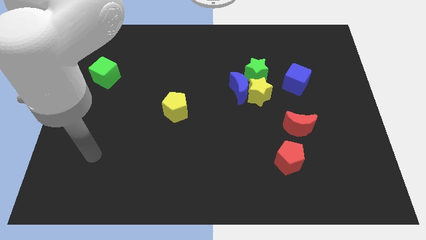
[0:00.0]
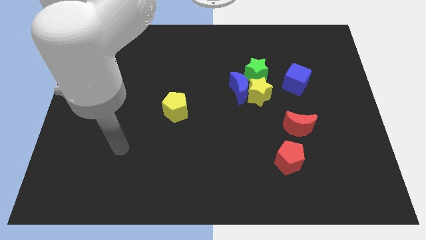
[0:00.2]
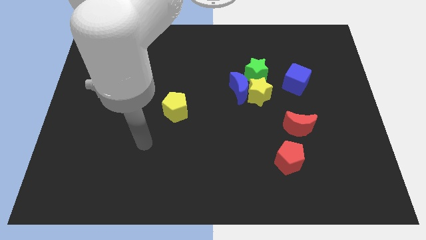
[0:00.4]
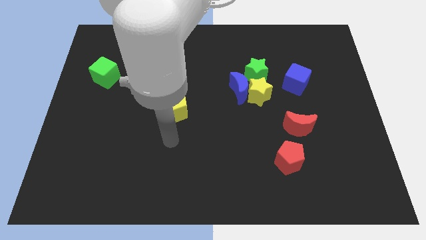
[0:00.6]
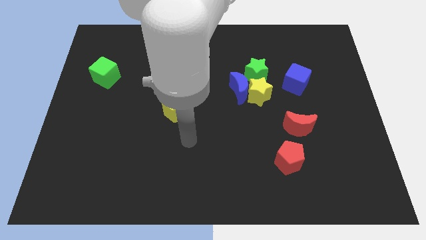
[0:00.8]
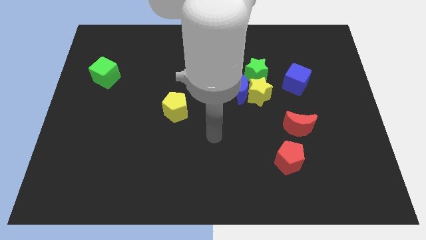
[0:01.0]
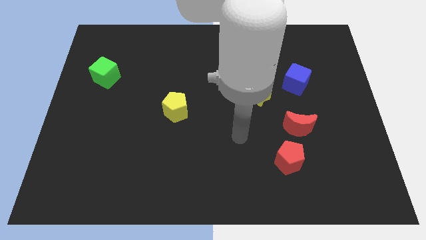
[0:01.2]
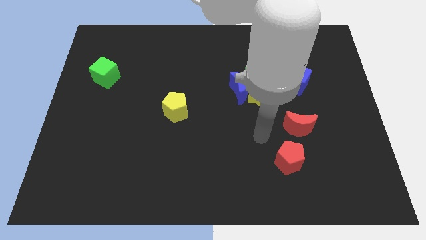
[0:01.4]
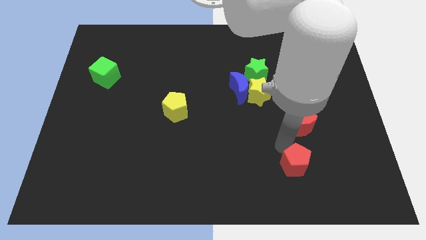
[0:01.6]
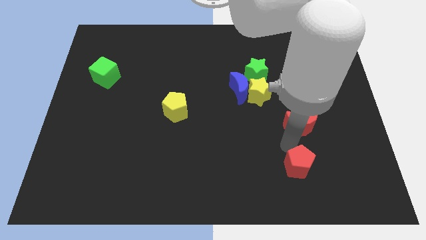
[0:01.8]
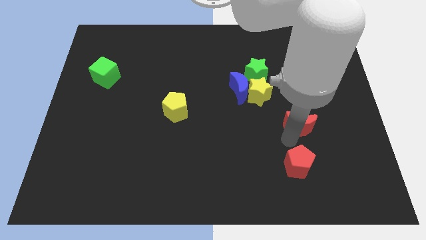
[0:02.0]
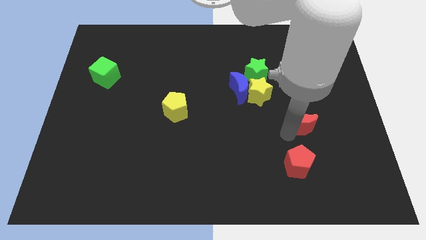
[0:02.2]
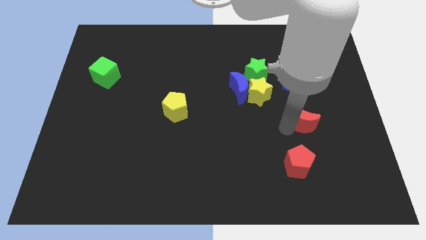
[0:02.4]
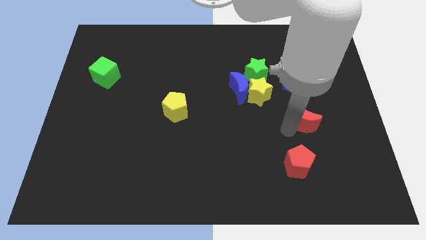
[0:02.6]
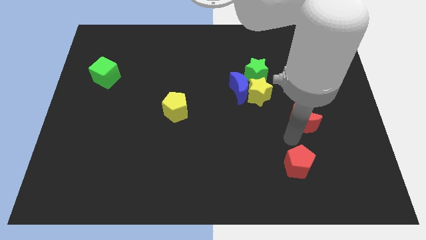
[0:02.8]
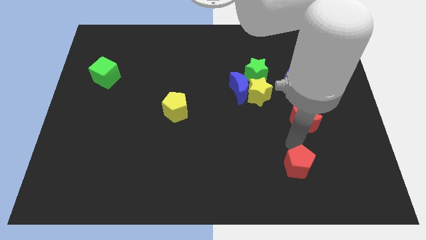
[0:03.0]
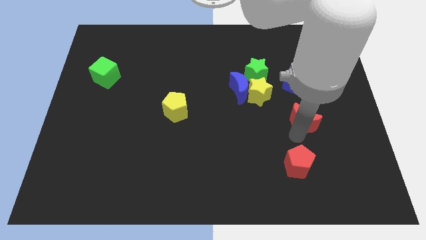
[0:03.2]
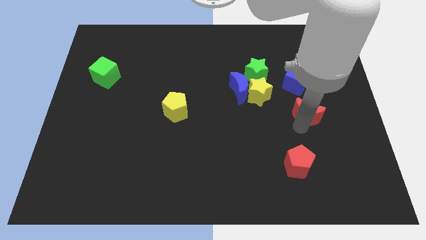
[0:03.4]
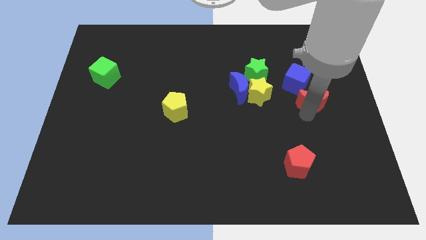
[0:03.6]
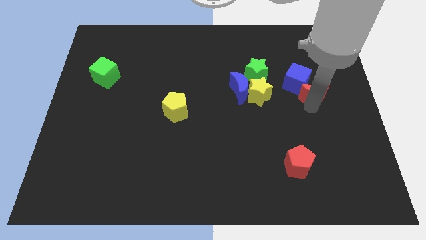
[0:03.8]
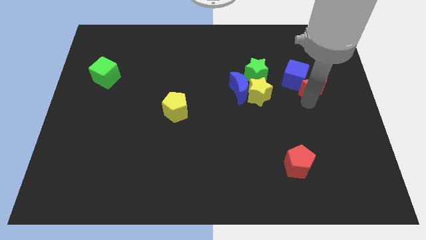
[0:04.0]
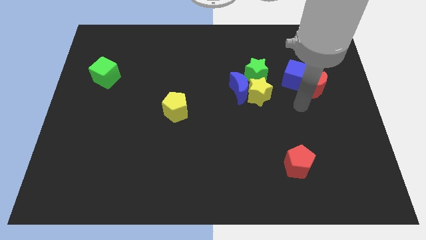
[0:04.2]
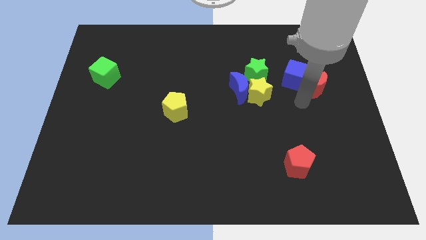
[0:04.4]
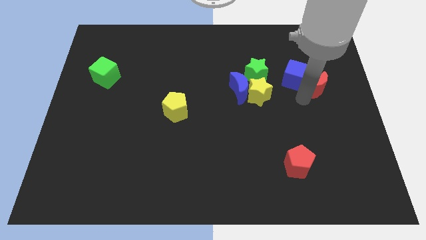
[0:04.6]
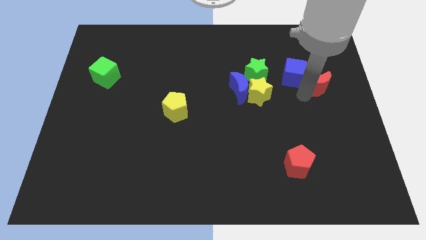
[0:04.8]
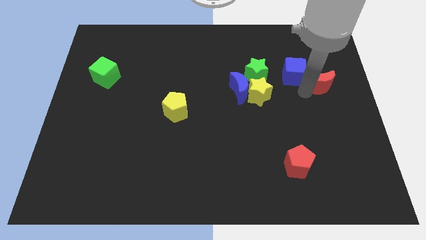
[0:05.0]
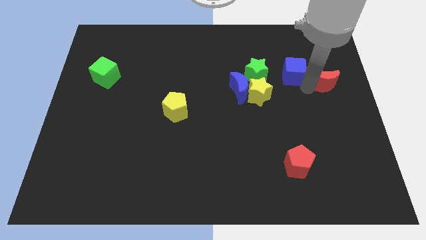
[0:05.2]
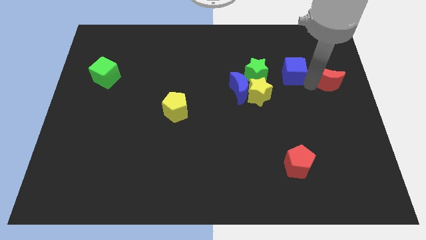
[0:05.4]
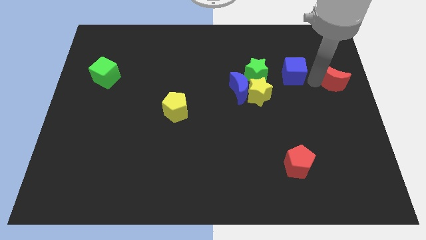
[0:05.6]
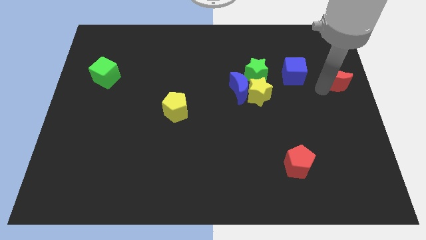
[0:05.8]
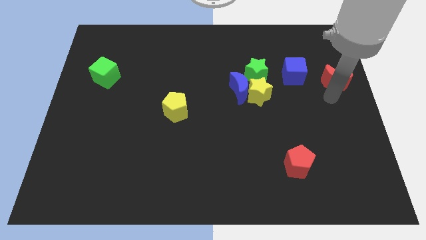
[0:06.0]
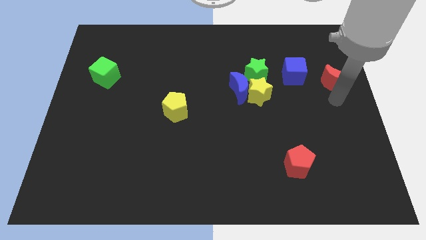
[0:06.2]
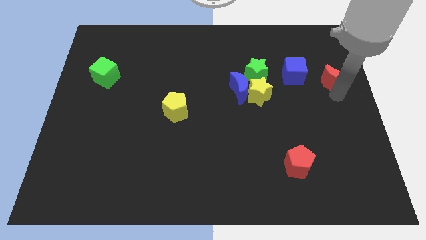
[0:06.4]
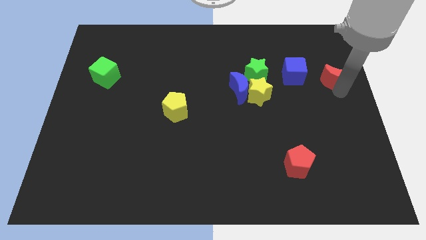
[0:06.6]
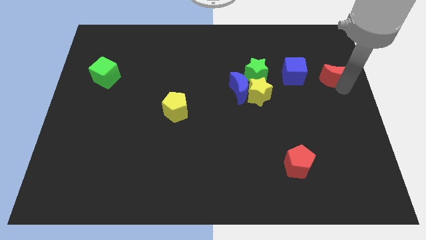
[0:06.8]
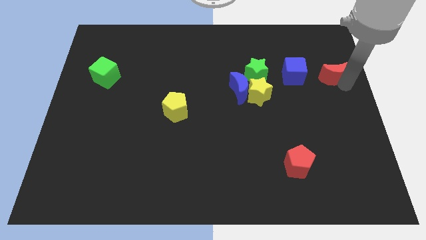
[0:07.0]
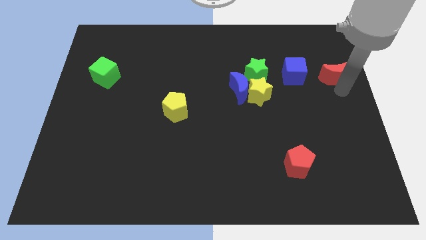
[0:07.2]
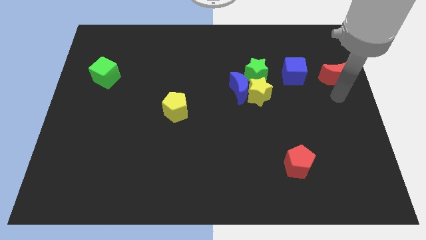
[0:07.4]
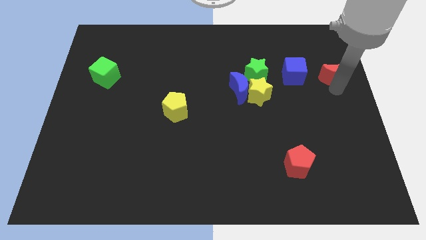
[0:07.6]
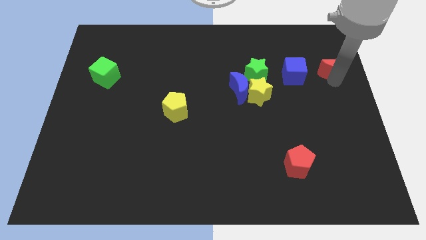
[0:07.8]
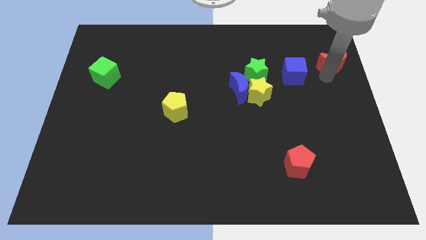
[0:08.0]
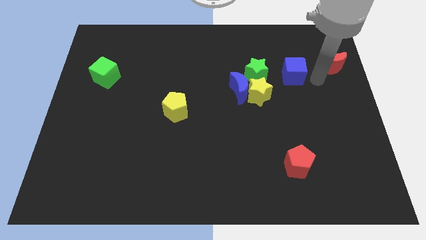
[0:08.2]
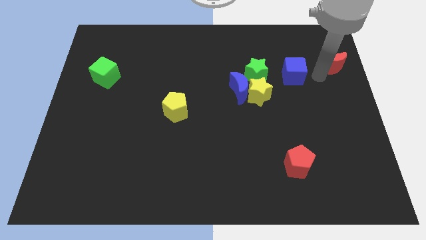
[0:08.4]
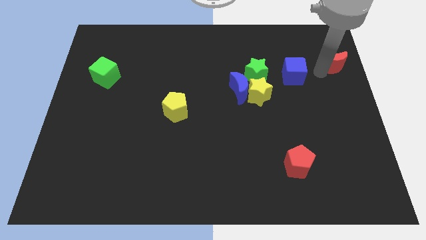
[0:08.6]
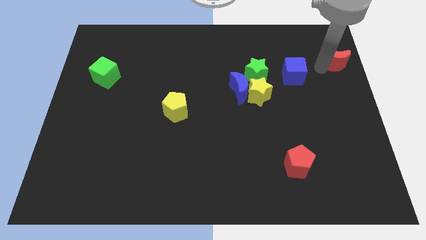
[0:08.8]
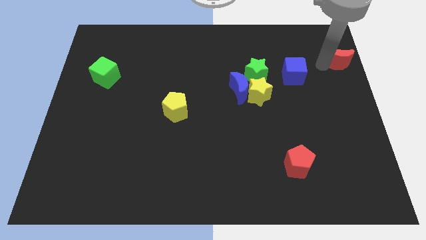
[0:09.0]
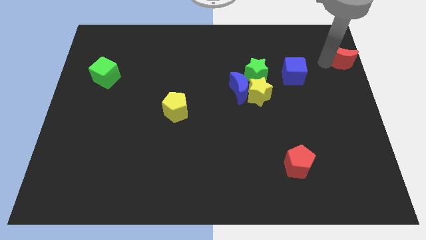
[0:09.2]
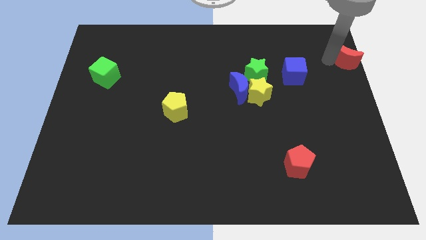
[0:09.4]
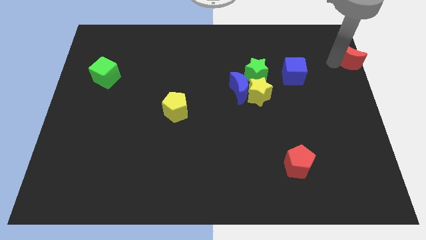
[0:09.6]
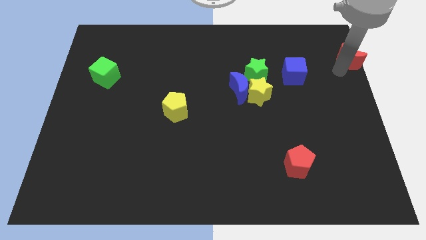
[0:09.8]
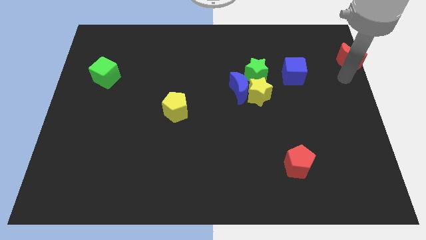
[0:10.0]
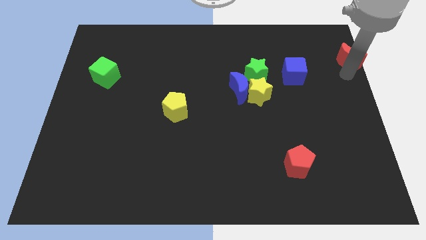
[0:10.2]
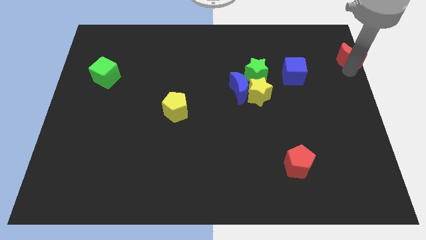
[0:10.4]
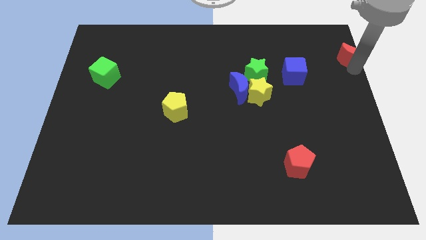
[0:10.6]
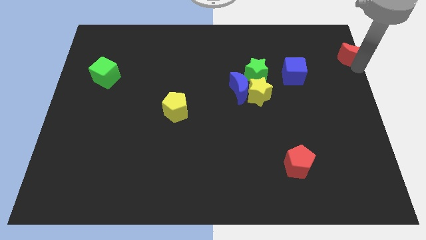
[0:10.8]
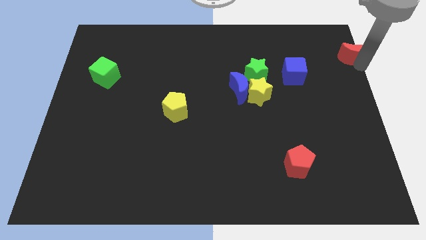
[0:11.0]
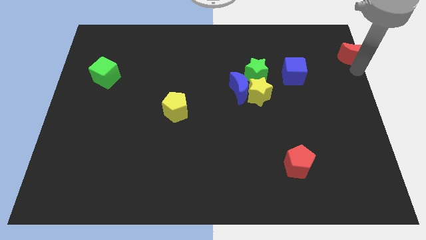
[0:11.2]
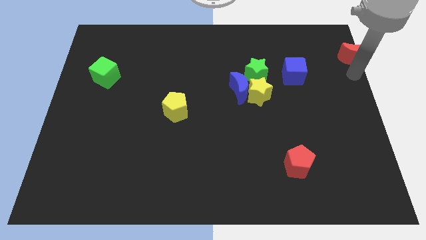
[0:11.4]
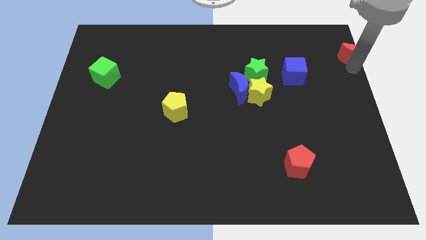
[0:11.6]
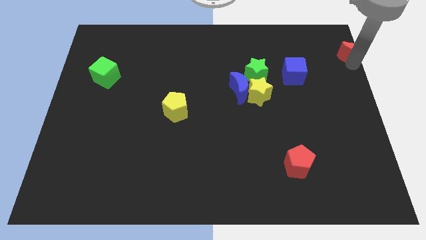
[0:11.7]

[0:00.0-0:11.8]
move the red moon to the top right of the board

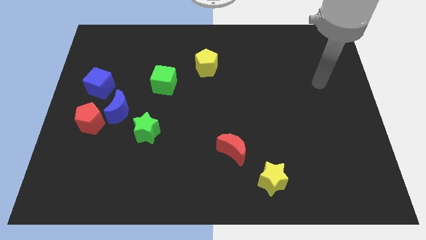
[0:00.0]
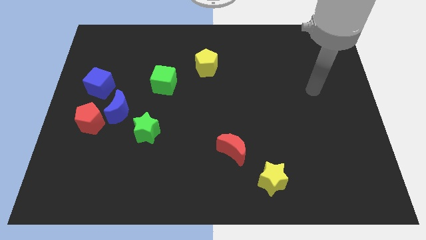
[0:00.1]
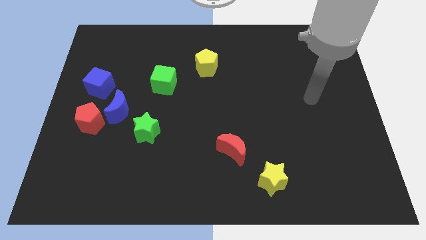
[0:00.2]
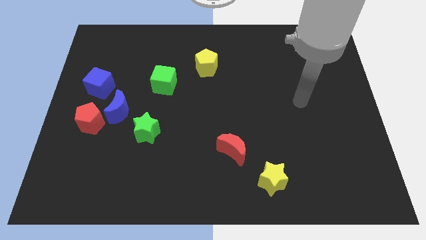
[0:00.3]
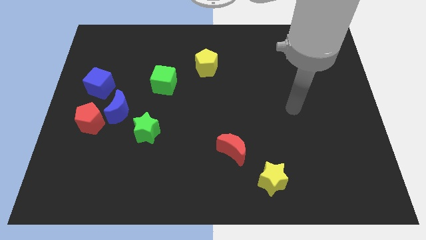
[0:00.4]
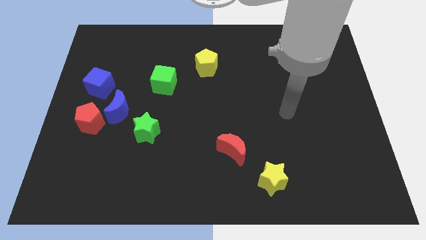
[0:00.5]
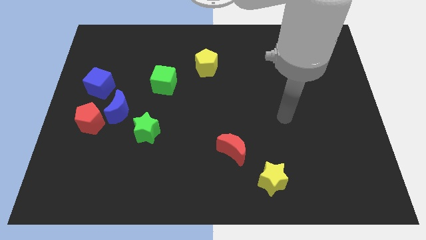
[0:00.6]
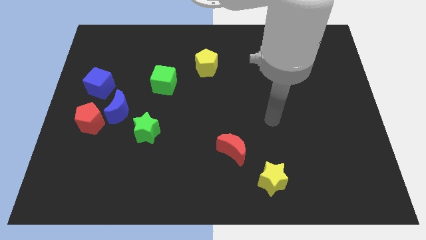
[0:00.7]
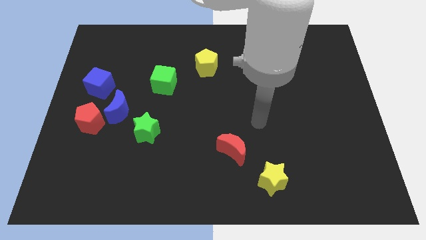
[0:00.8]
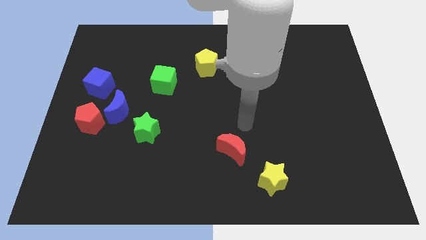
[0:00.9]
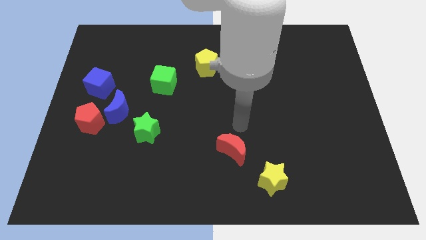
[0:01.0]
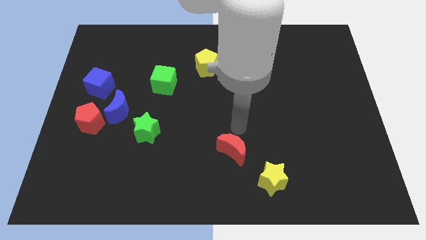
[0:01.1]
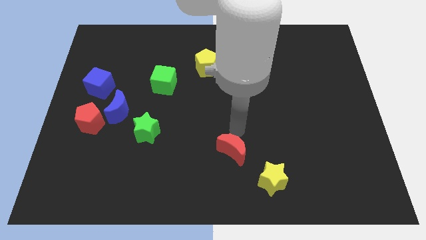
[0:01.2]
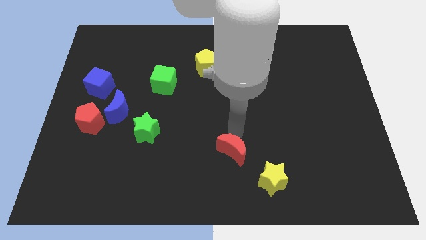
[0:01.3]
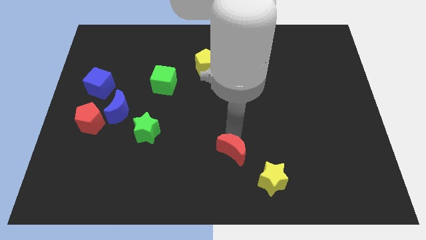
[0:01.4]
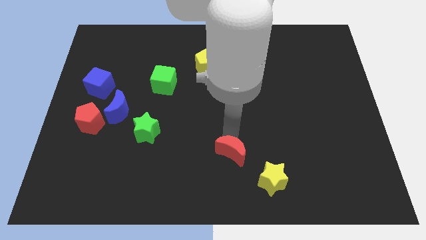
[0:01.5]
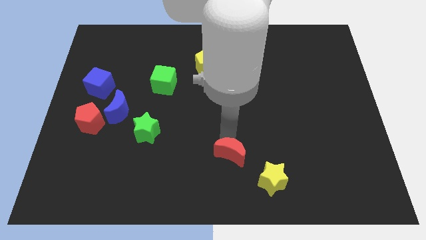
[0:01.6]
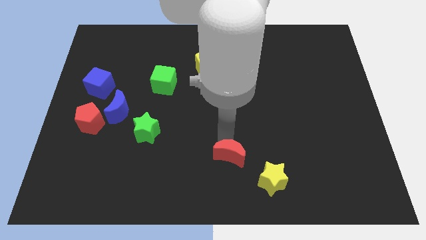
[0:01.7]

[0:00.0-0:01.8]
push the red moon to the bottom side
